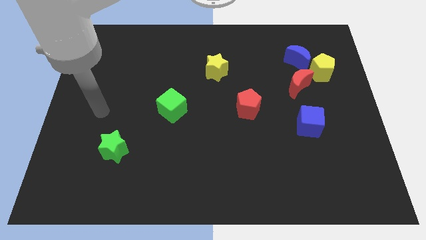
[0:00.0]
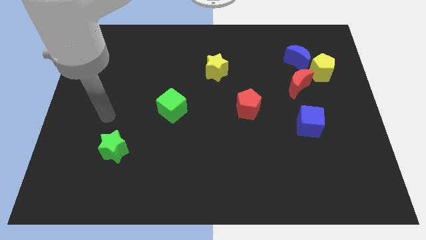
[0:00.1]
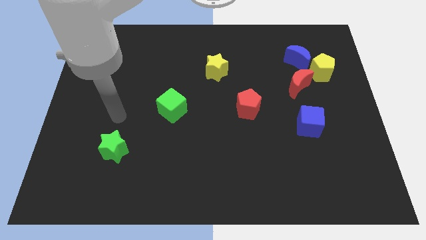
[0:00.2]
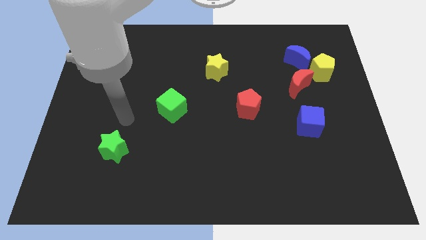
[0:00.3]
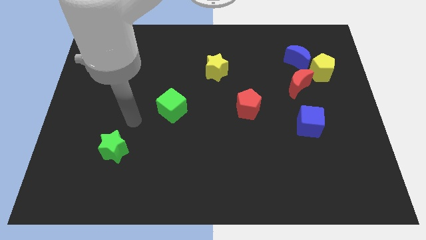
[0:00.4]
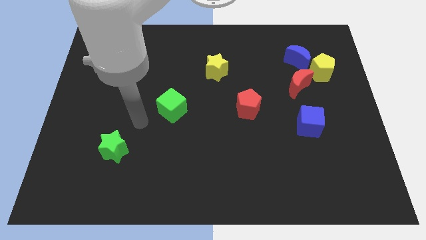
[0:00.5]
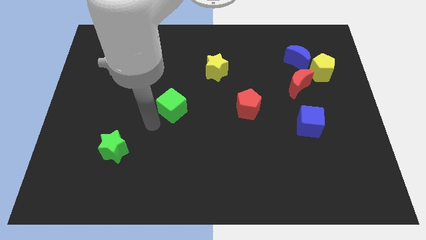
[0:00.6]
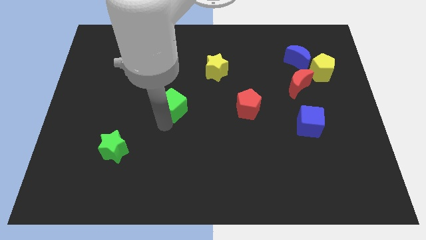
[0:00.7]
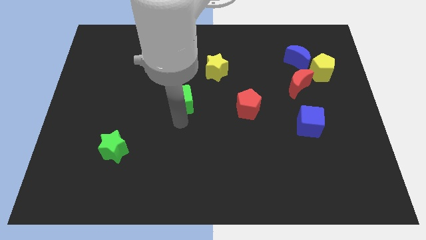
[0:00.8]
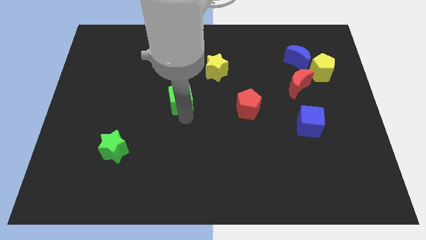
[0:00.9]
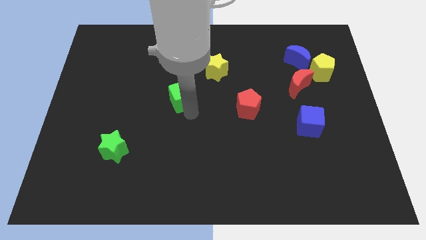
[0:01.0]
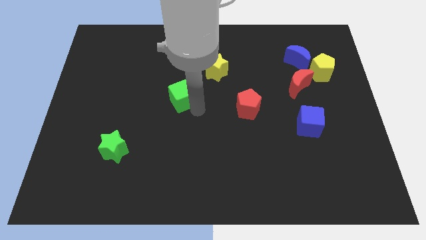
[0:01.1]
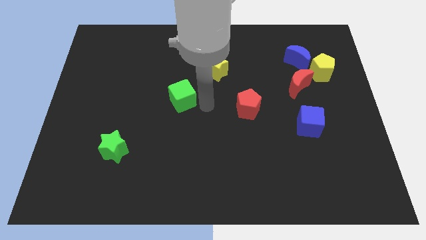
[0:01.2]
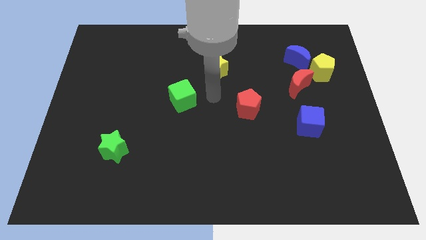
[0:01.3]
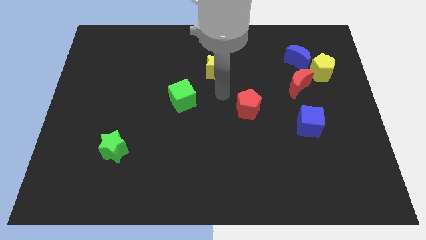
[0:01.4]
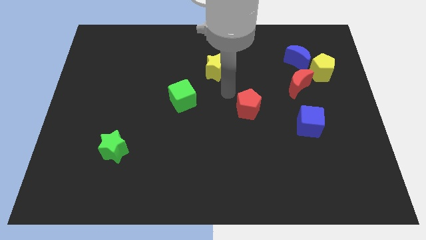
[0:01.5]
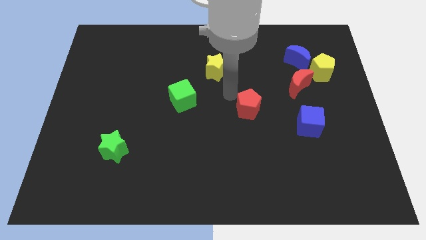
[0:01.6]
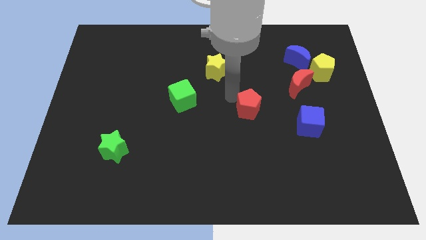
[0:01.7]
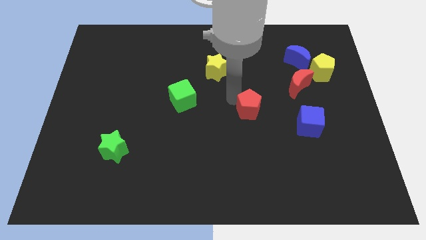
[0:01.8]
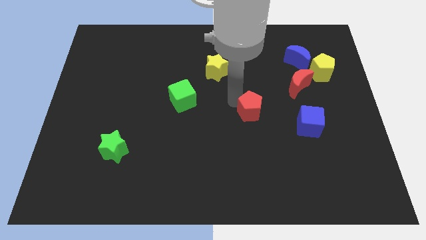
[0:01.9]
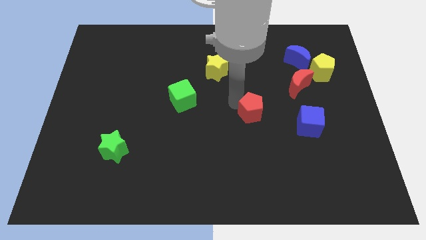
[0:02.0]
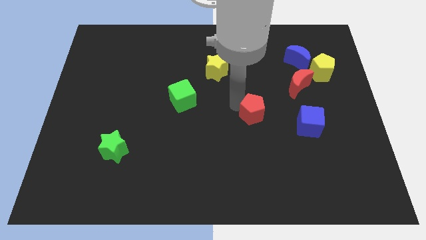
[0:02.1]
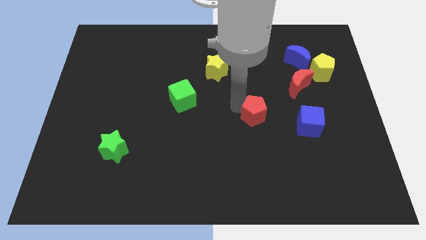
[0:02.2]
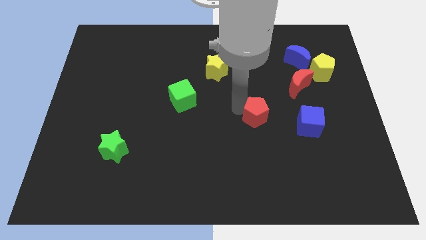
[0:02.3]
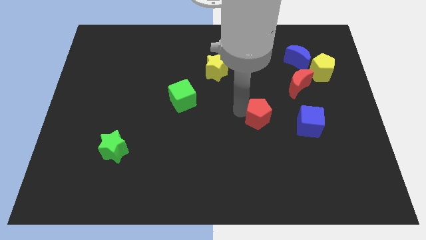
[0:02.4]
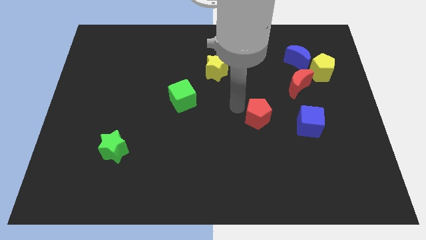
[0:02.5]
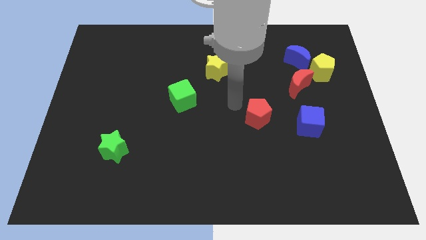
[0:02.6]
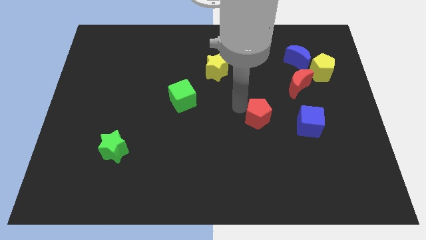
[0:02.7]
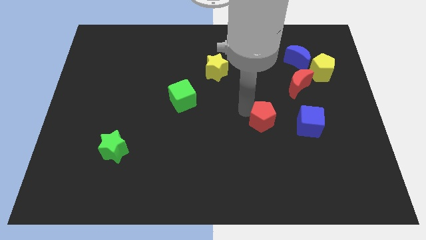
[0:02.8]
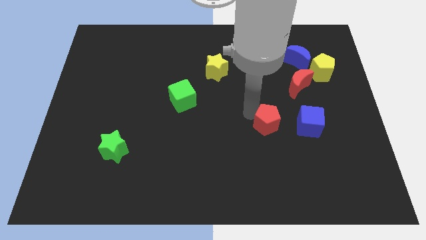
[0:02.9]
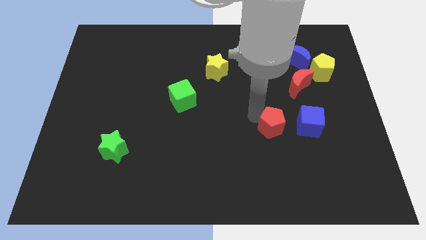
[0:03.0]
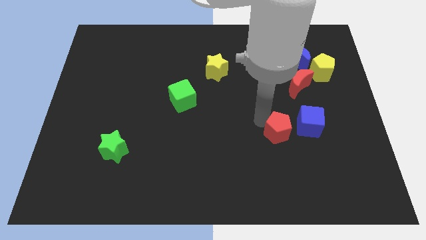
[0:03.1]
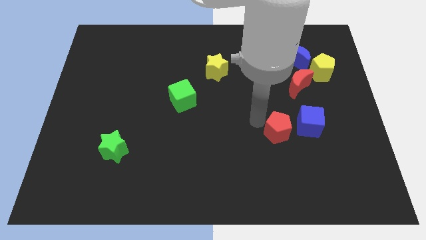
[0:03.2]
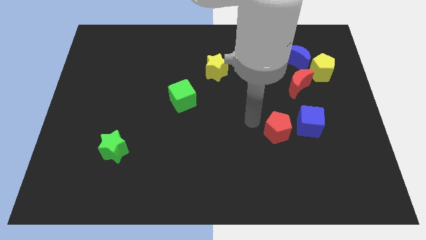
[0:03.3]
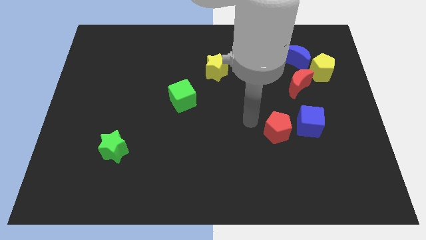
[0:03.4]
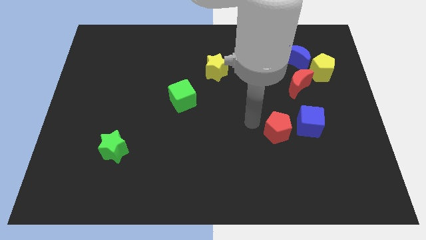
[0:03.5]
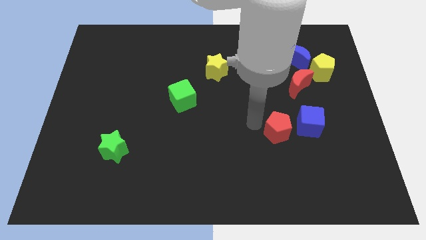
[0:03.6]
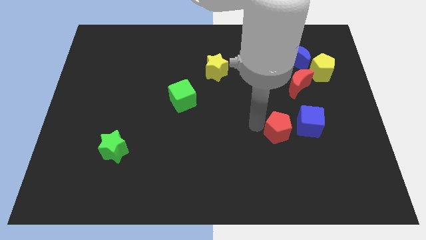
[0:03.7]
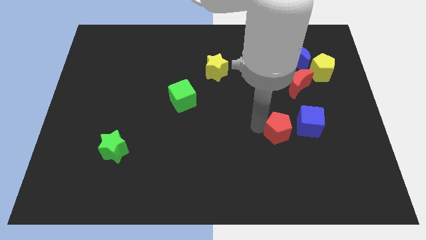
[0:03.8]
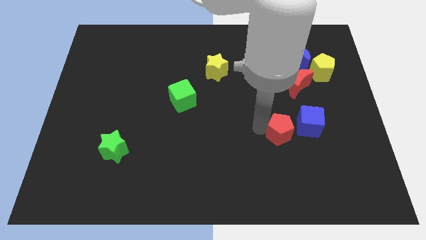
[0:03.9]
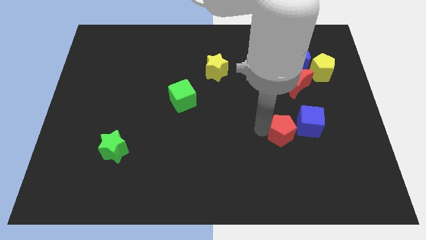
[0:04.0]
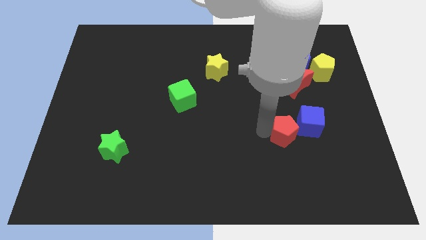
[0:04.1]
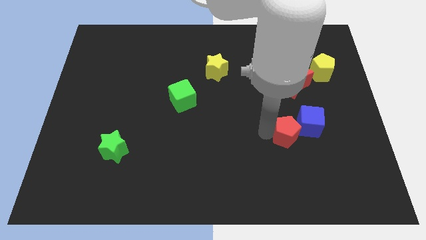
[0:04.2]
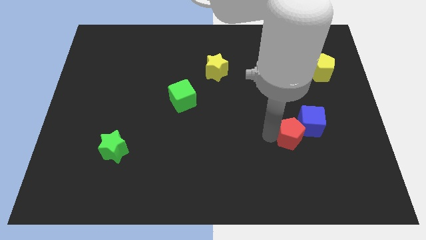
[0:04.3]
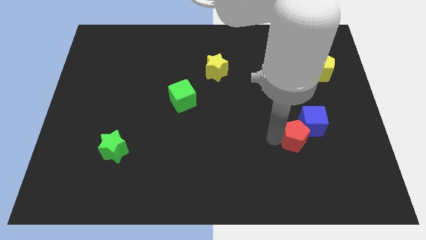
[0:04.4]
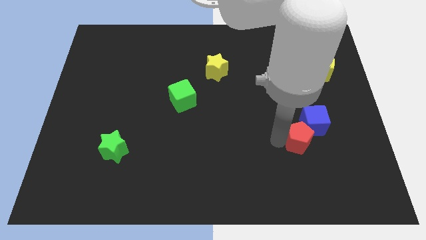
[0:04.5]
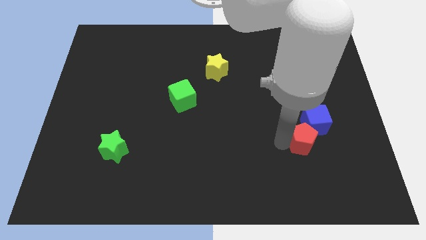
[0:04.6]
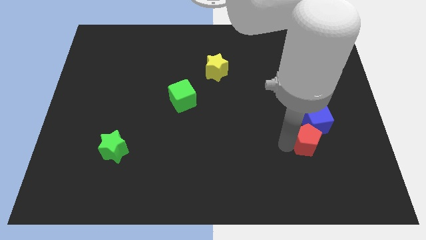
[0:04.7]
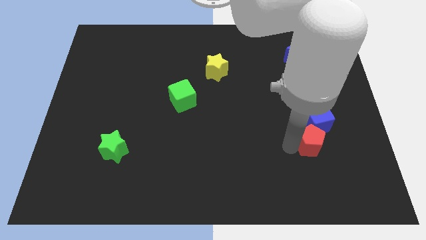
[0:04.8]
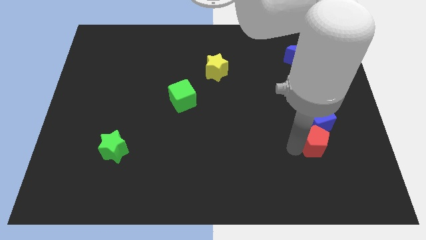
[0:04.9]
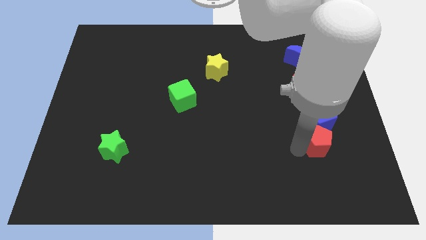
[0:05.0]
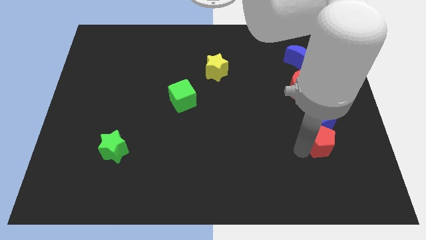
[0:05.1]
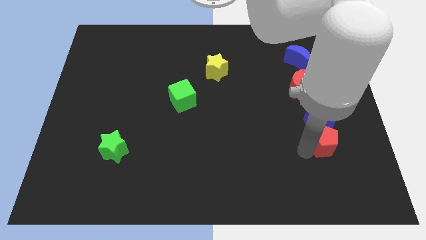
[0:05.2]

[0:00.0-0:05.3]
put the red pentagon to the bottom right of the blue cube

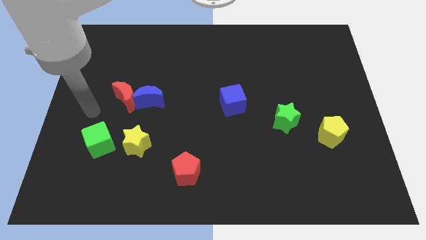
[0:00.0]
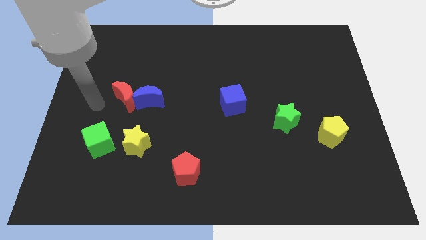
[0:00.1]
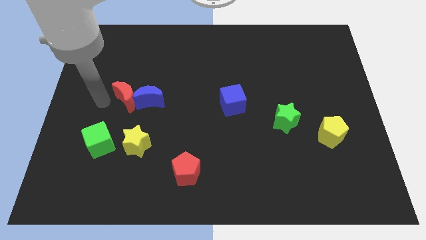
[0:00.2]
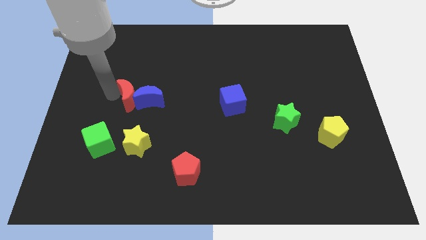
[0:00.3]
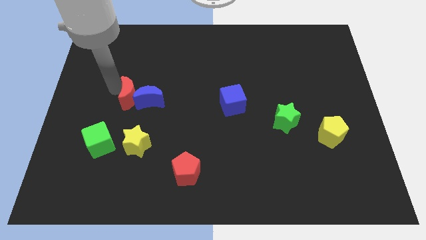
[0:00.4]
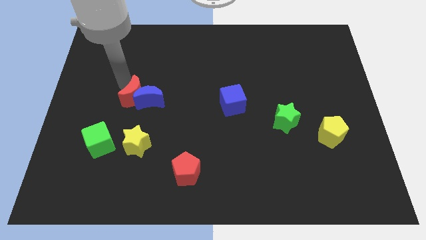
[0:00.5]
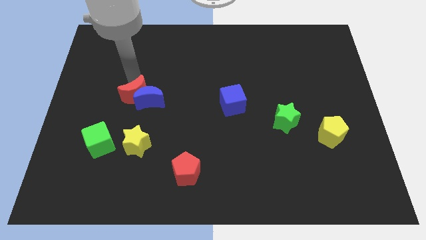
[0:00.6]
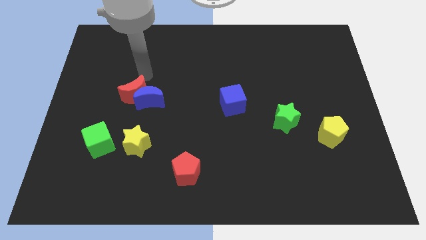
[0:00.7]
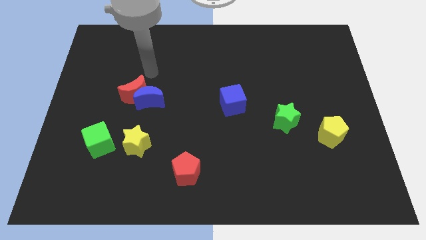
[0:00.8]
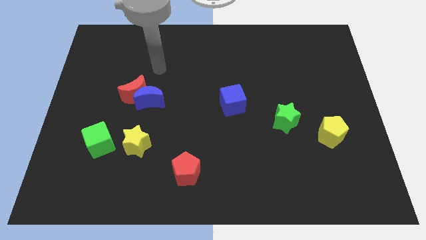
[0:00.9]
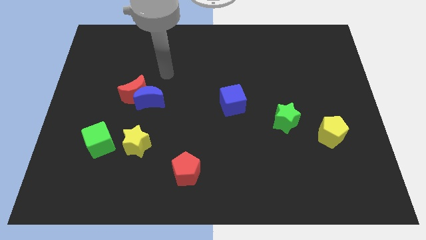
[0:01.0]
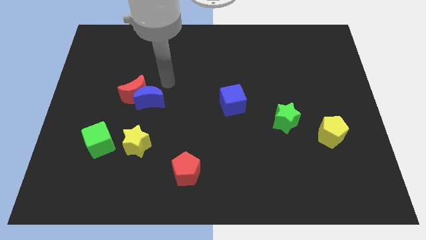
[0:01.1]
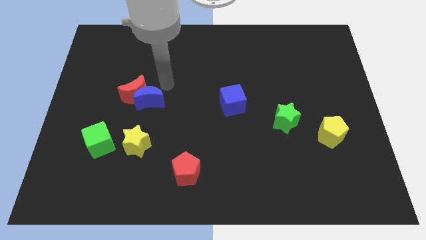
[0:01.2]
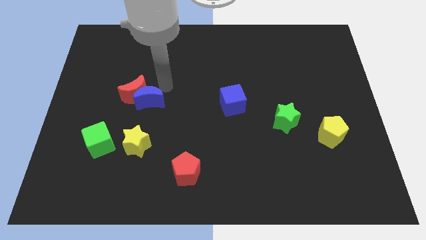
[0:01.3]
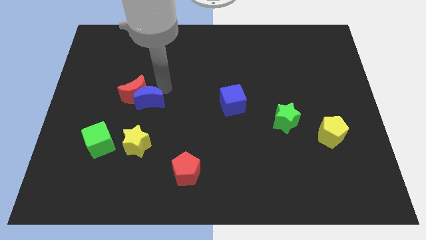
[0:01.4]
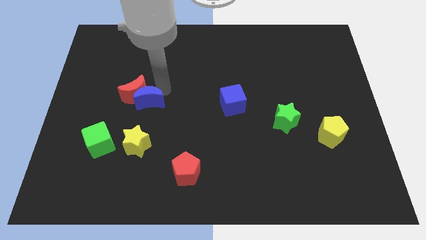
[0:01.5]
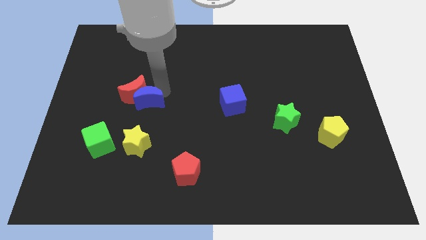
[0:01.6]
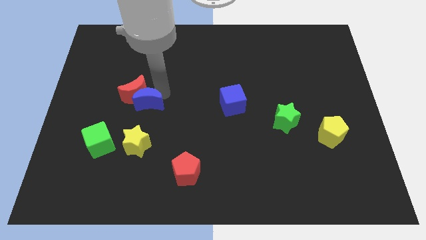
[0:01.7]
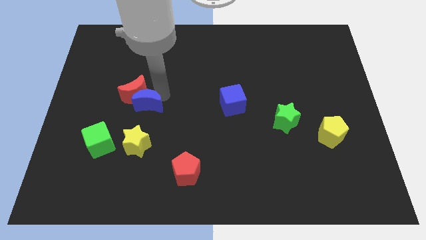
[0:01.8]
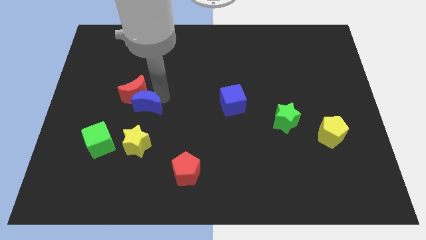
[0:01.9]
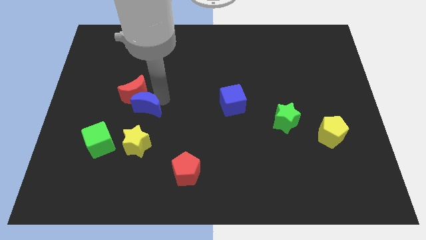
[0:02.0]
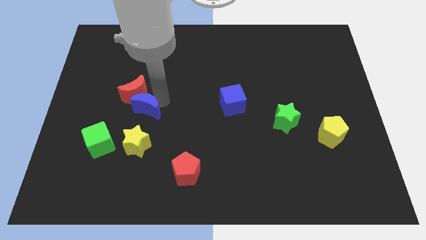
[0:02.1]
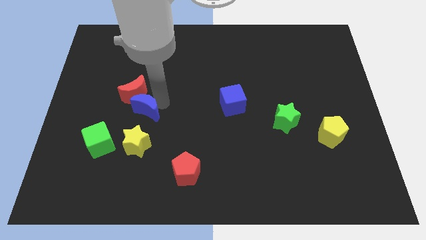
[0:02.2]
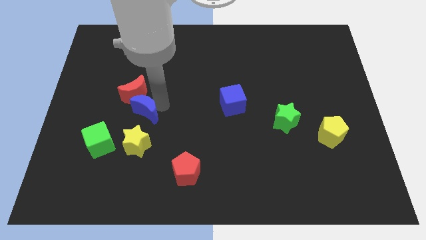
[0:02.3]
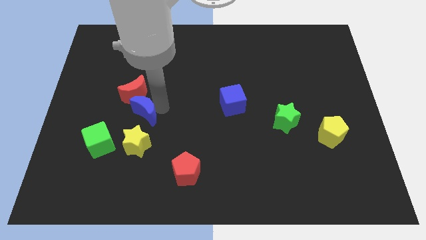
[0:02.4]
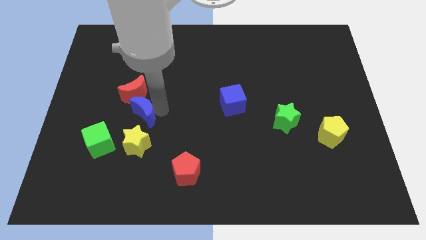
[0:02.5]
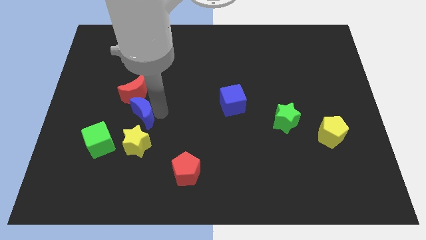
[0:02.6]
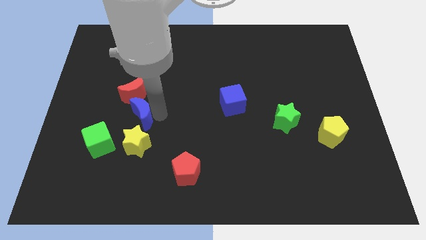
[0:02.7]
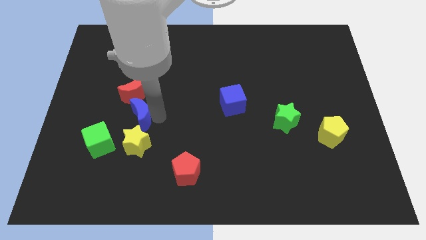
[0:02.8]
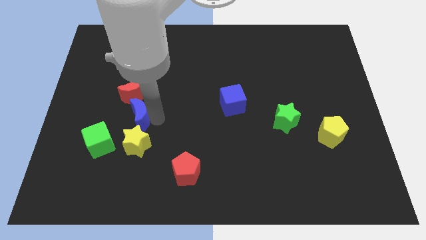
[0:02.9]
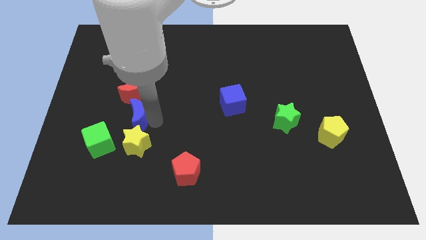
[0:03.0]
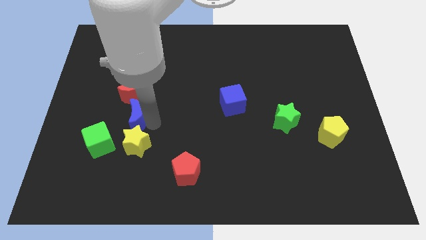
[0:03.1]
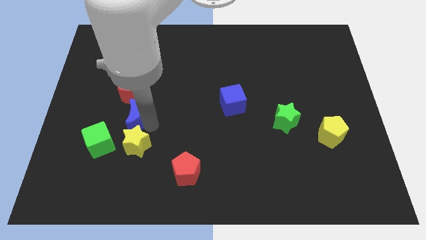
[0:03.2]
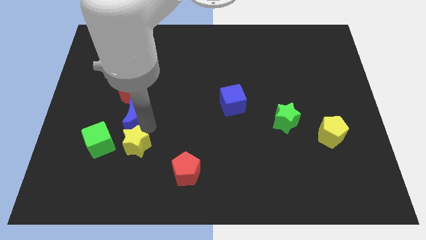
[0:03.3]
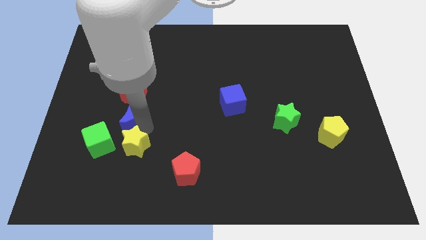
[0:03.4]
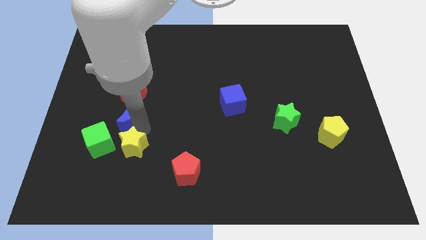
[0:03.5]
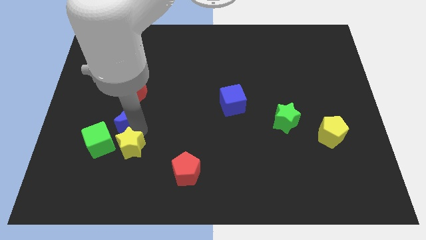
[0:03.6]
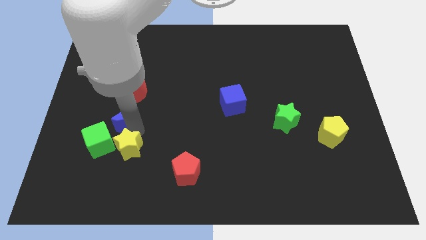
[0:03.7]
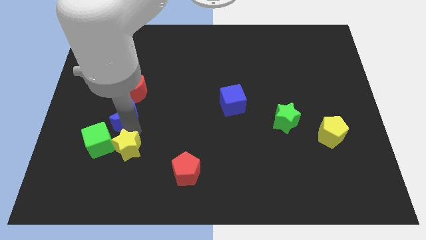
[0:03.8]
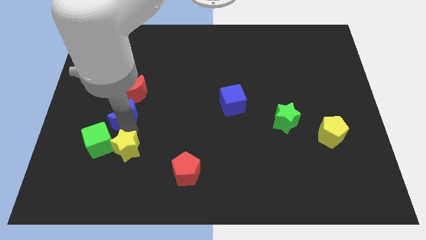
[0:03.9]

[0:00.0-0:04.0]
move the blue moon above the green cube
